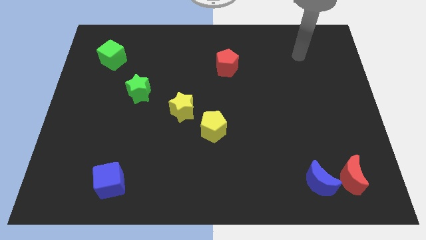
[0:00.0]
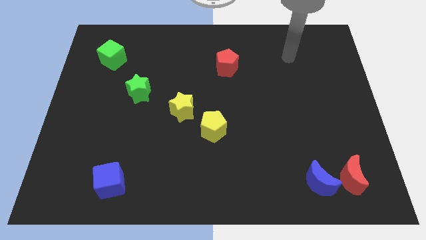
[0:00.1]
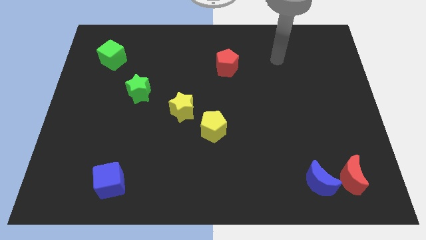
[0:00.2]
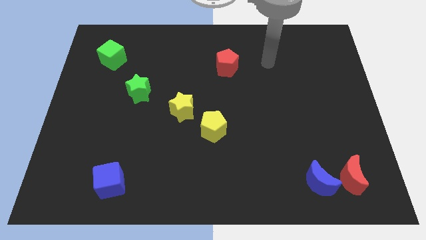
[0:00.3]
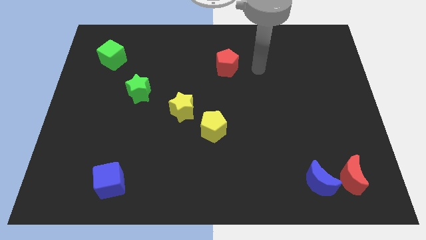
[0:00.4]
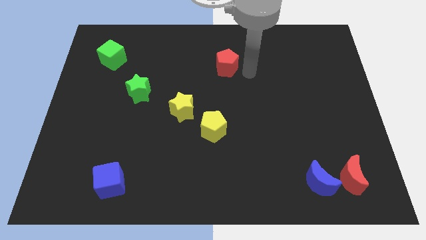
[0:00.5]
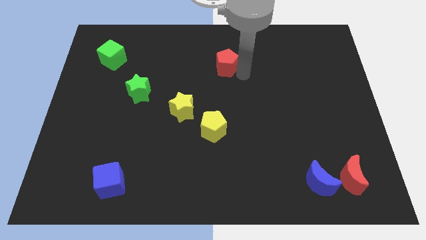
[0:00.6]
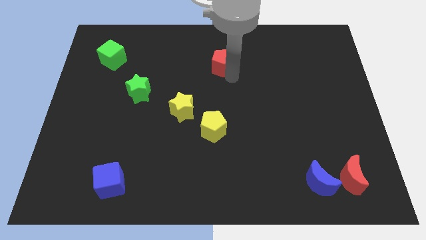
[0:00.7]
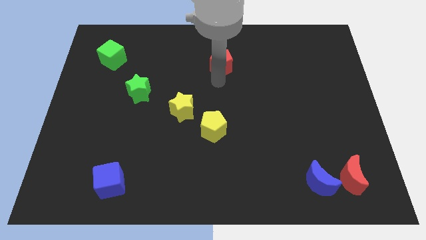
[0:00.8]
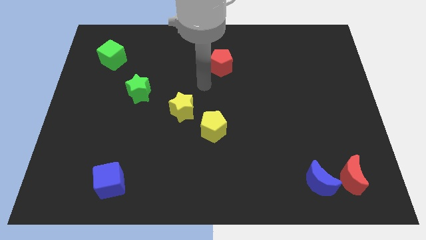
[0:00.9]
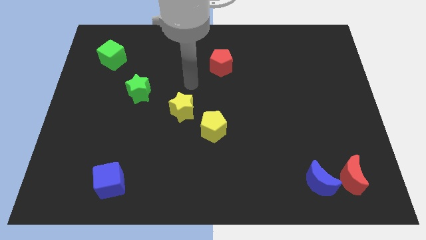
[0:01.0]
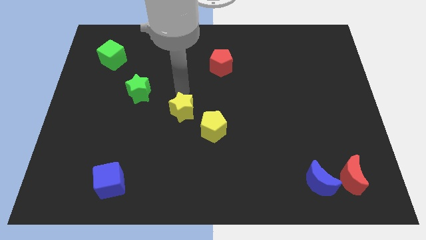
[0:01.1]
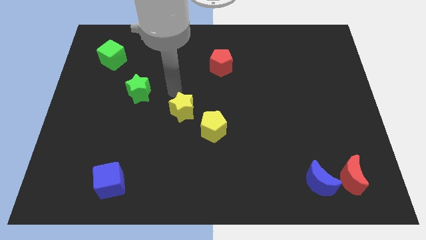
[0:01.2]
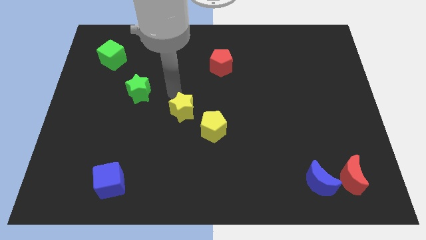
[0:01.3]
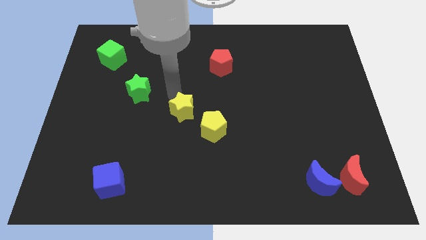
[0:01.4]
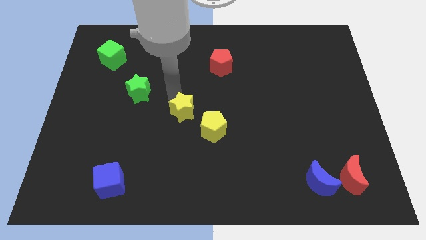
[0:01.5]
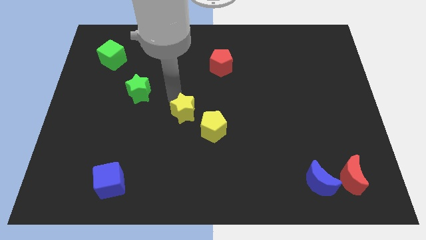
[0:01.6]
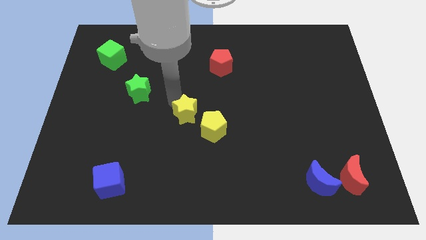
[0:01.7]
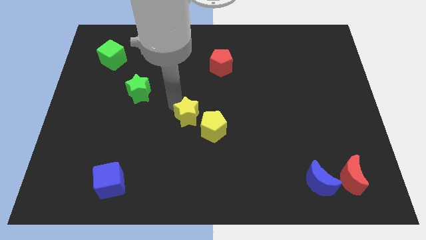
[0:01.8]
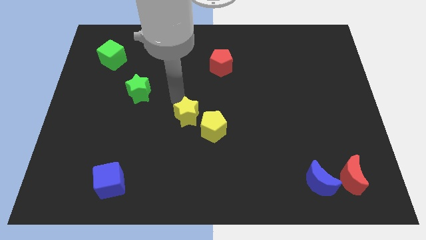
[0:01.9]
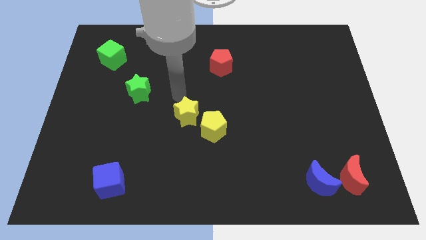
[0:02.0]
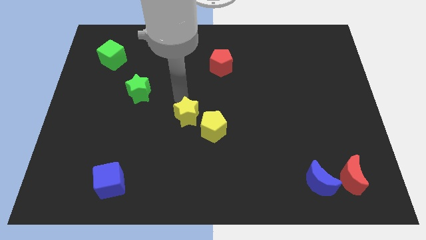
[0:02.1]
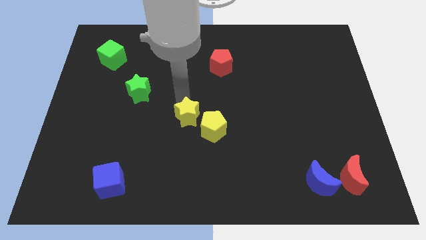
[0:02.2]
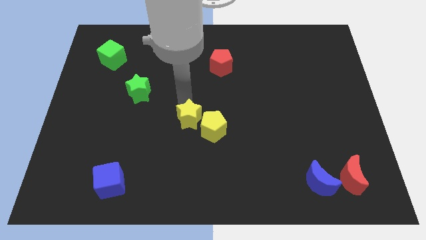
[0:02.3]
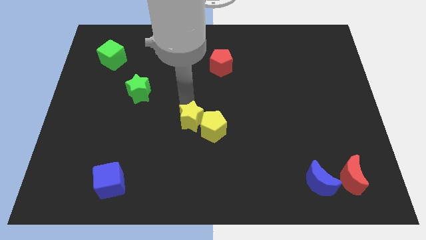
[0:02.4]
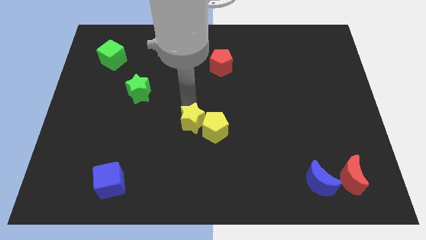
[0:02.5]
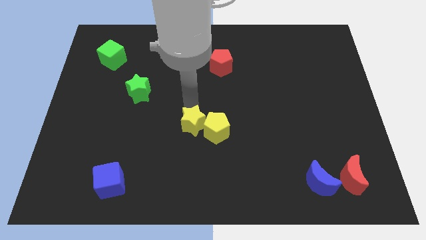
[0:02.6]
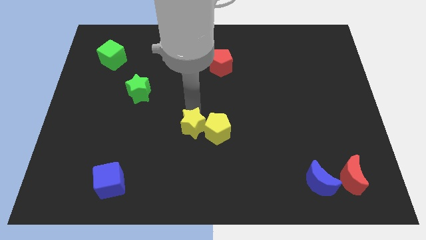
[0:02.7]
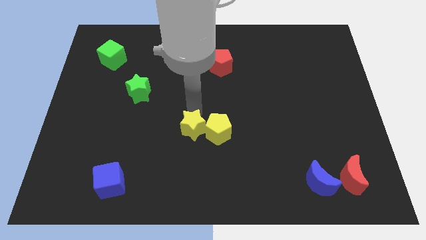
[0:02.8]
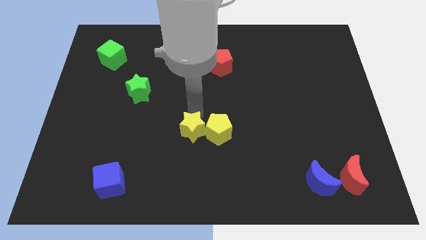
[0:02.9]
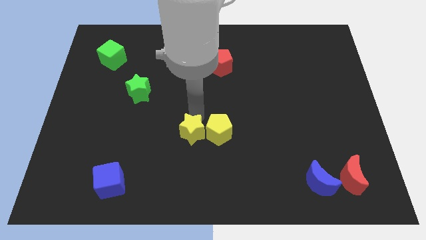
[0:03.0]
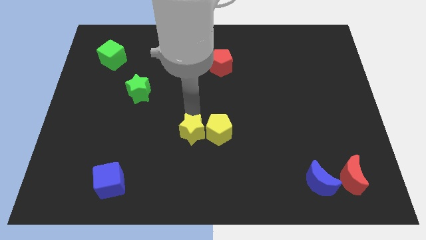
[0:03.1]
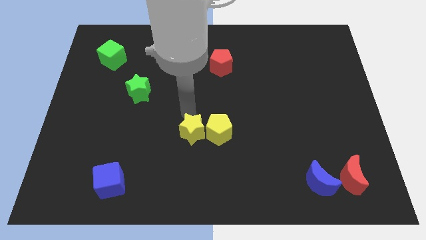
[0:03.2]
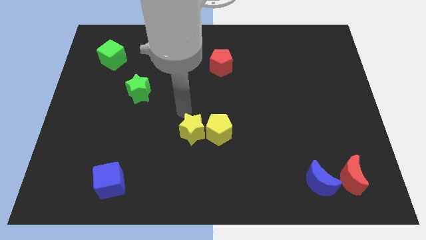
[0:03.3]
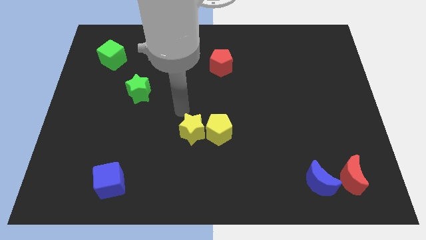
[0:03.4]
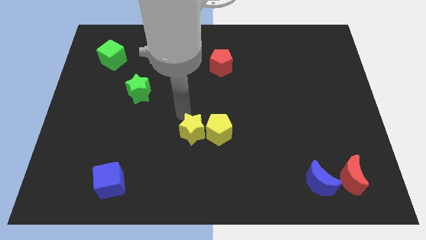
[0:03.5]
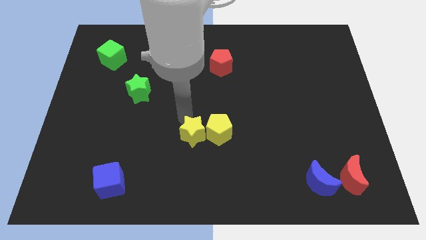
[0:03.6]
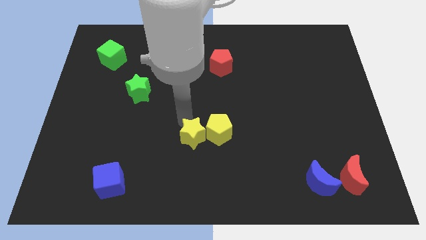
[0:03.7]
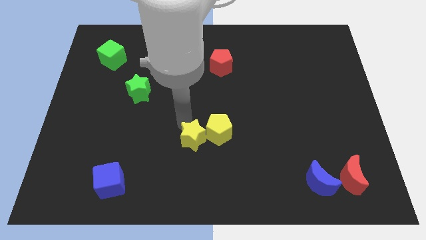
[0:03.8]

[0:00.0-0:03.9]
slide the yellow star slightly diagonally down and to the right

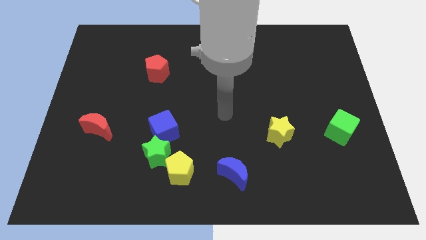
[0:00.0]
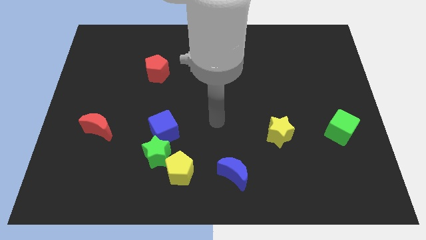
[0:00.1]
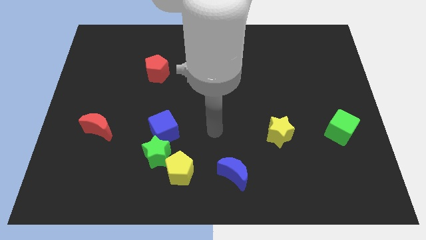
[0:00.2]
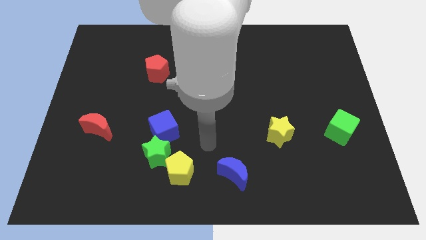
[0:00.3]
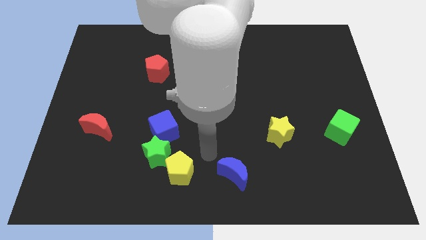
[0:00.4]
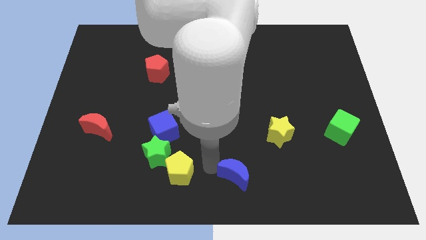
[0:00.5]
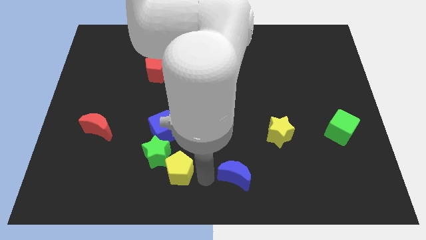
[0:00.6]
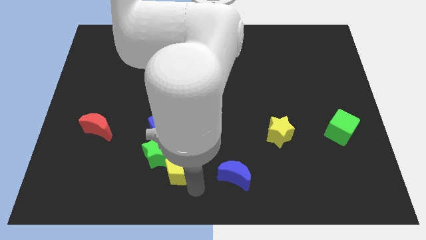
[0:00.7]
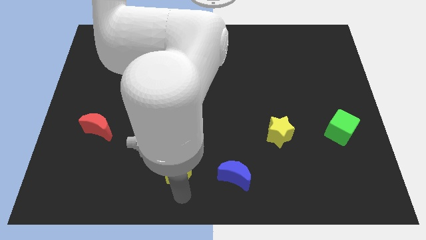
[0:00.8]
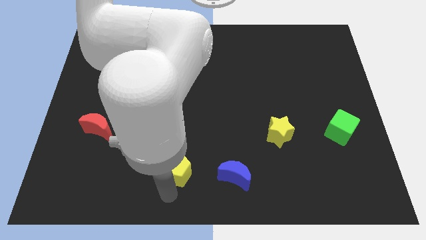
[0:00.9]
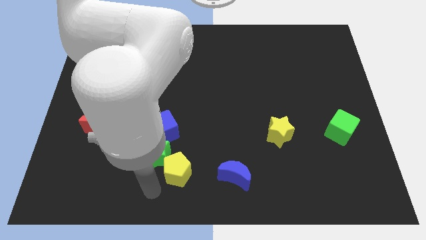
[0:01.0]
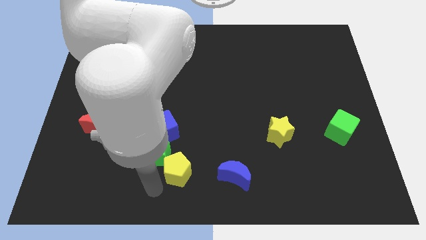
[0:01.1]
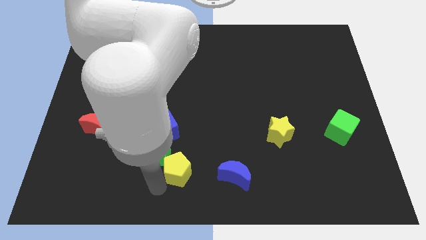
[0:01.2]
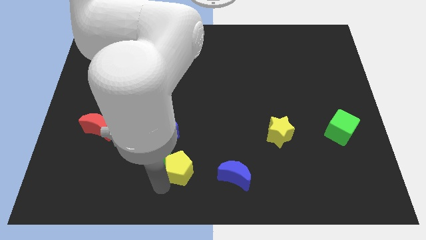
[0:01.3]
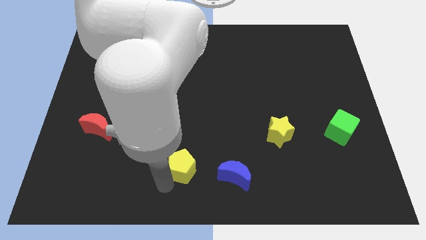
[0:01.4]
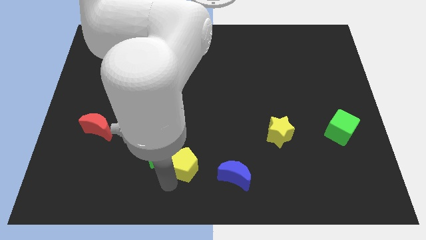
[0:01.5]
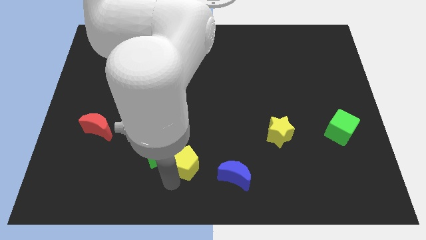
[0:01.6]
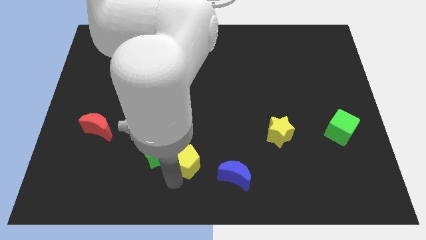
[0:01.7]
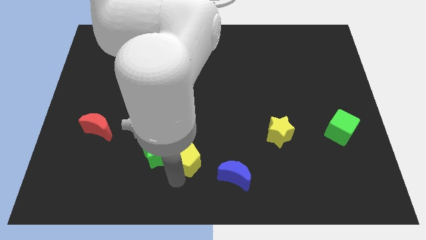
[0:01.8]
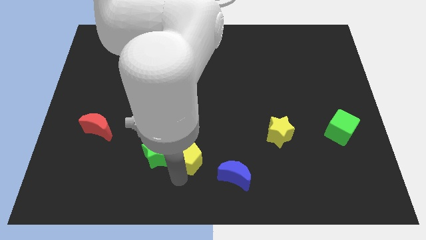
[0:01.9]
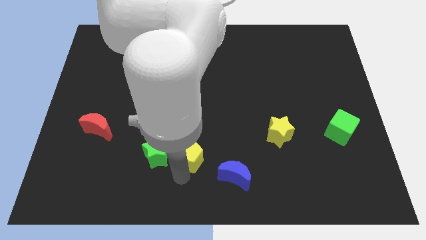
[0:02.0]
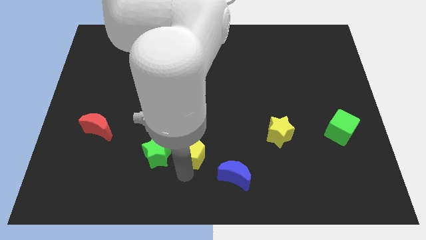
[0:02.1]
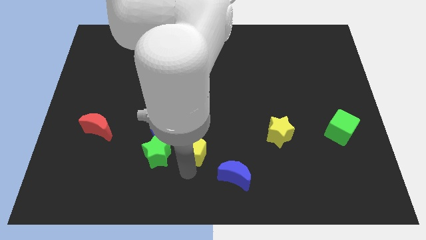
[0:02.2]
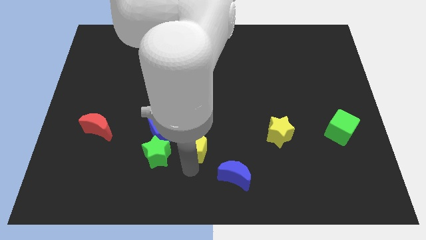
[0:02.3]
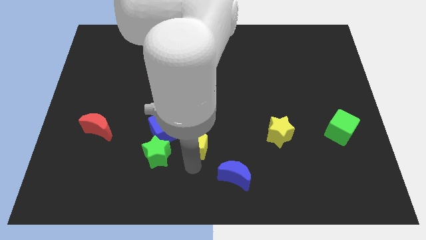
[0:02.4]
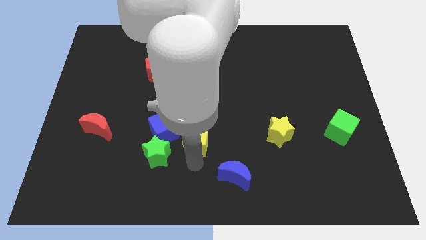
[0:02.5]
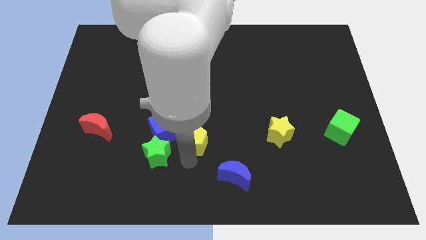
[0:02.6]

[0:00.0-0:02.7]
move the yellow pentagon a little bit upwards and right

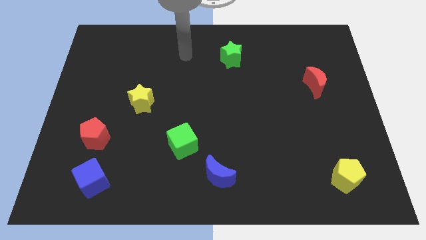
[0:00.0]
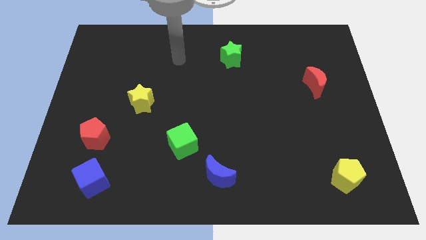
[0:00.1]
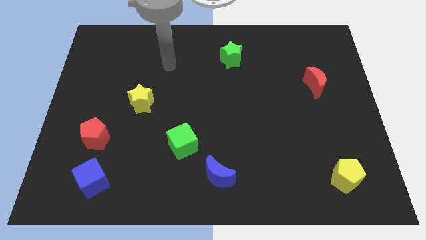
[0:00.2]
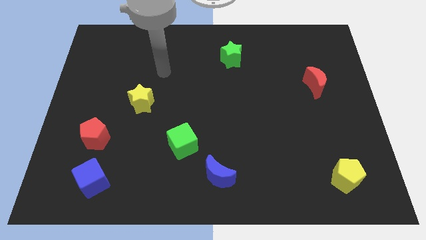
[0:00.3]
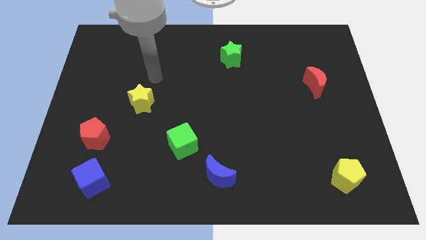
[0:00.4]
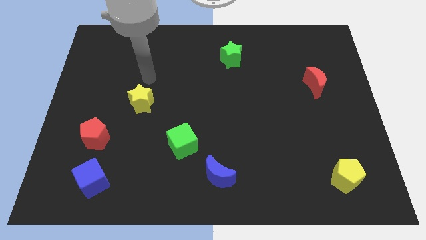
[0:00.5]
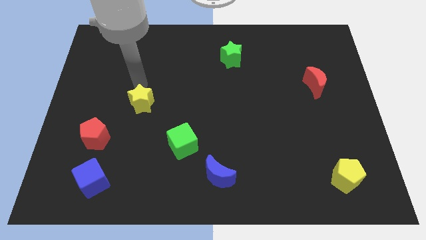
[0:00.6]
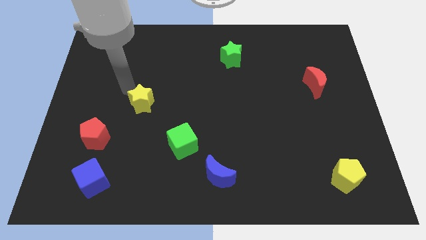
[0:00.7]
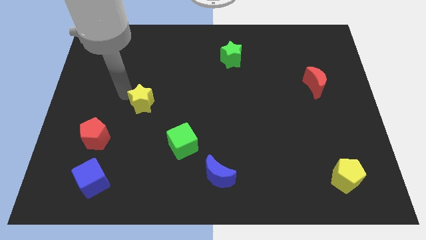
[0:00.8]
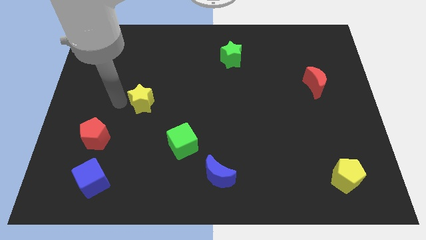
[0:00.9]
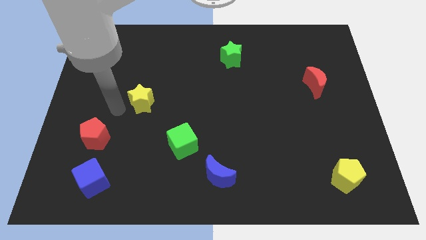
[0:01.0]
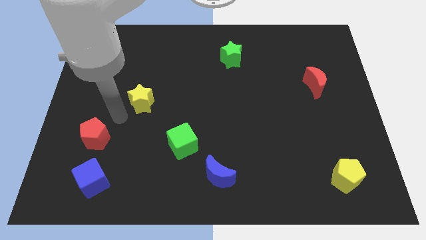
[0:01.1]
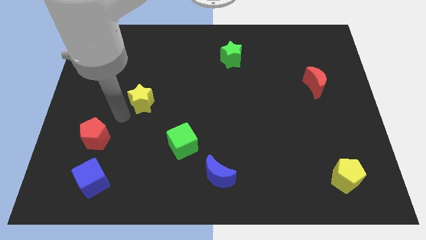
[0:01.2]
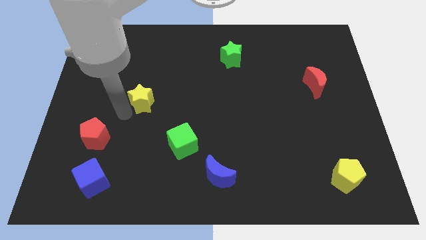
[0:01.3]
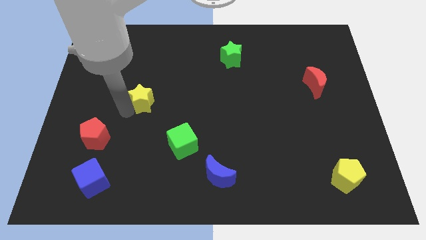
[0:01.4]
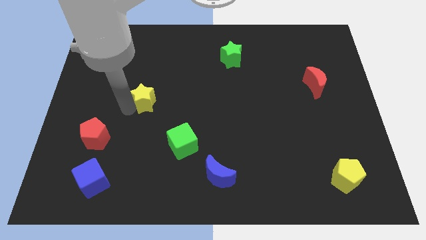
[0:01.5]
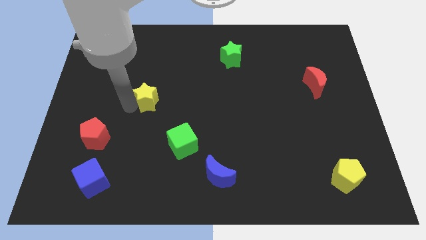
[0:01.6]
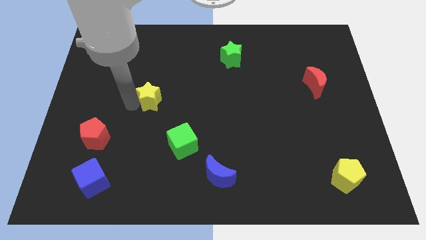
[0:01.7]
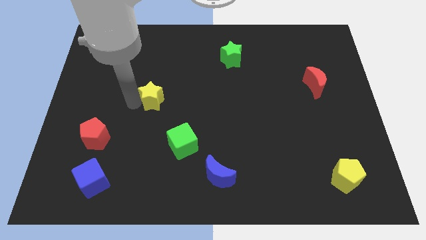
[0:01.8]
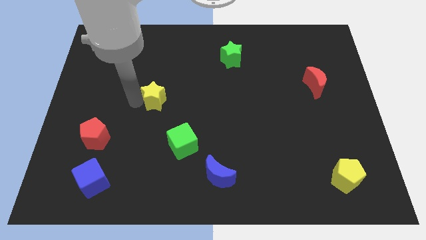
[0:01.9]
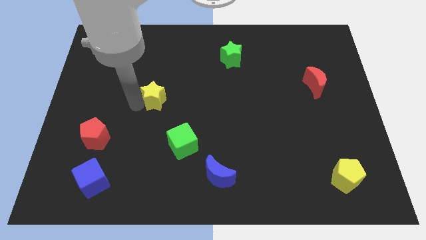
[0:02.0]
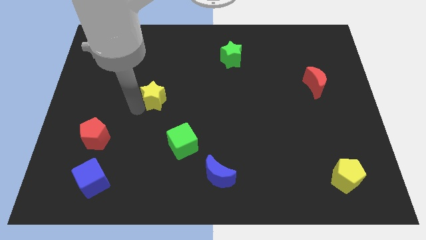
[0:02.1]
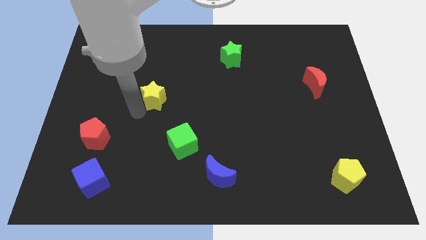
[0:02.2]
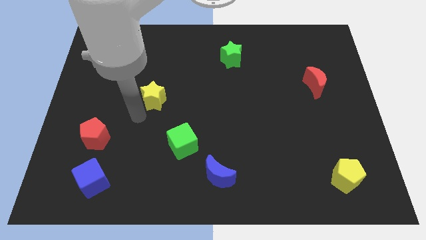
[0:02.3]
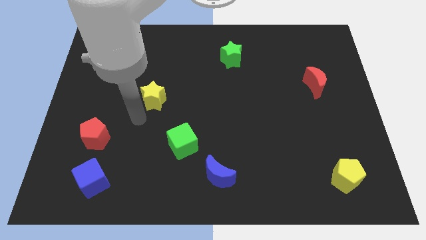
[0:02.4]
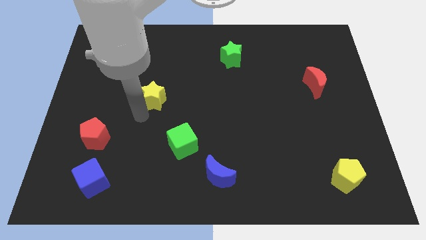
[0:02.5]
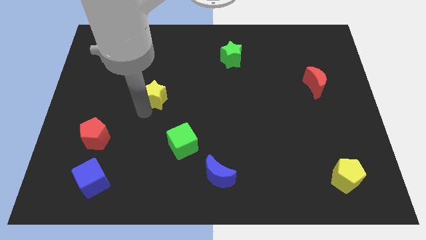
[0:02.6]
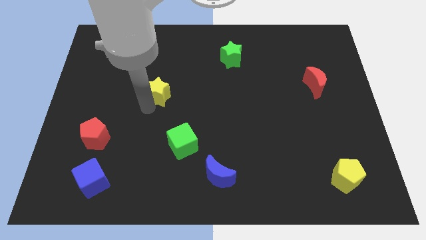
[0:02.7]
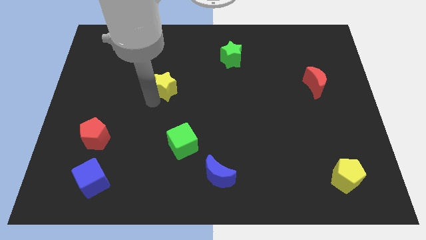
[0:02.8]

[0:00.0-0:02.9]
push the yellow star upwards and right diagonally a little bit
